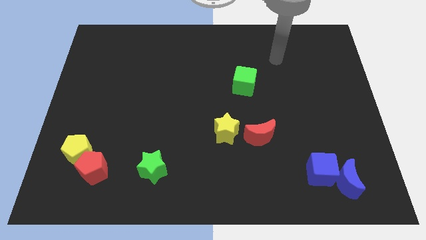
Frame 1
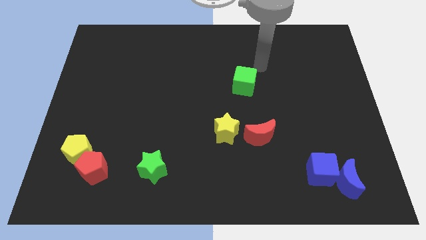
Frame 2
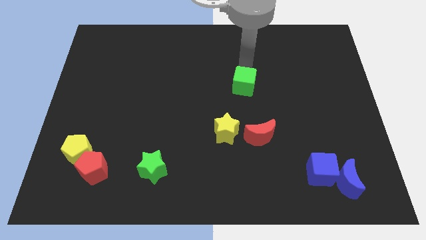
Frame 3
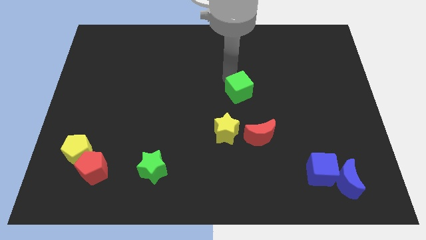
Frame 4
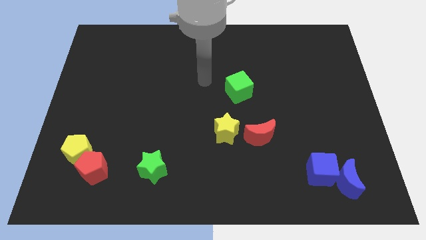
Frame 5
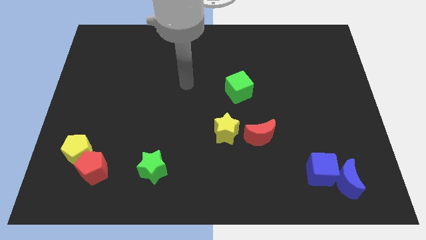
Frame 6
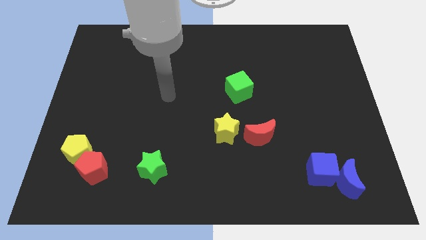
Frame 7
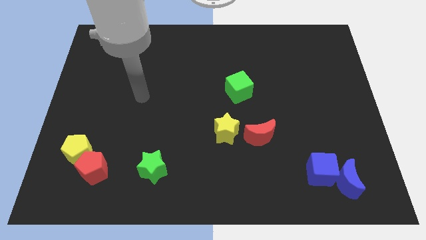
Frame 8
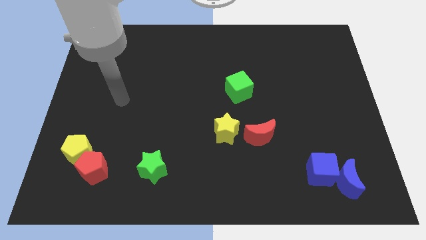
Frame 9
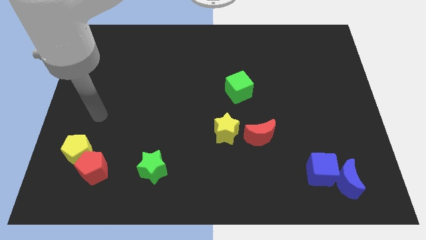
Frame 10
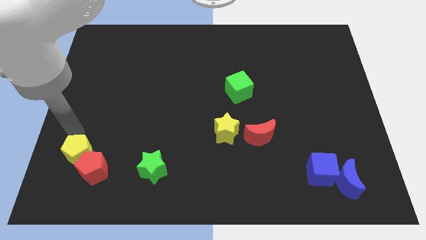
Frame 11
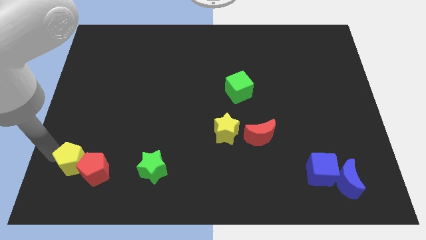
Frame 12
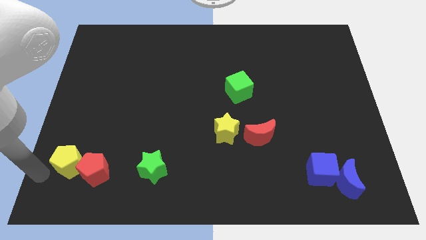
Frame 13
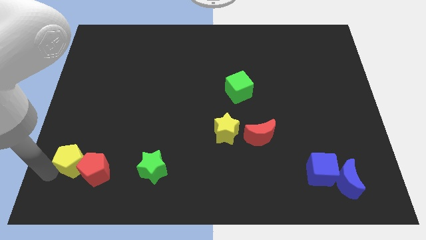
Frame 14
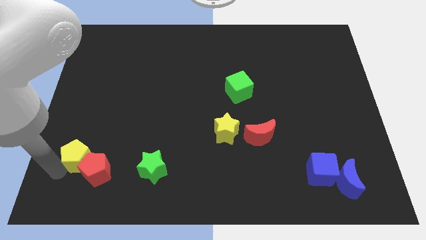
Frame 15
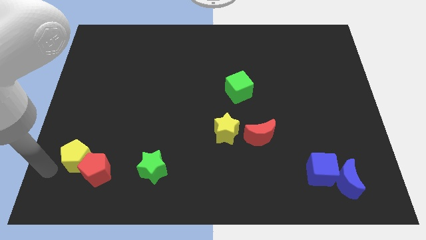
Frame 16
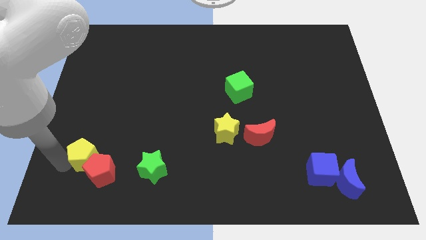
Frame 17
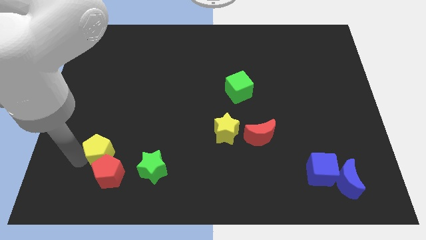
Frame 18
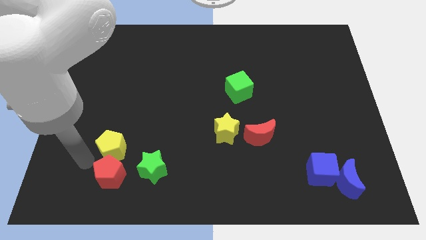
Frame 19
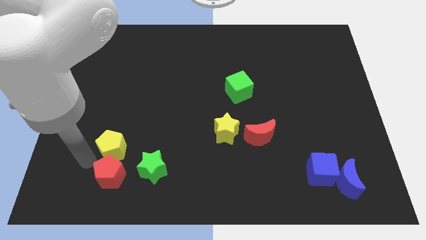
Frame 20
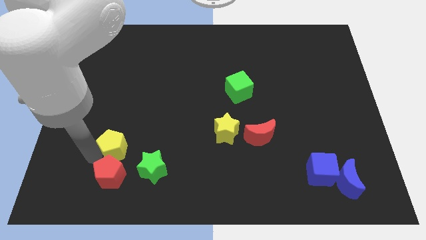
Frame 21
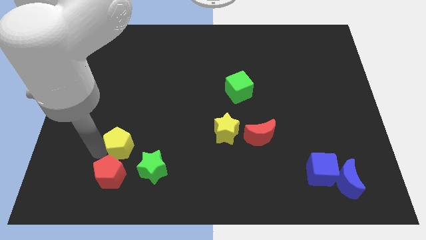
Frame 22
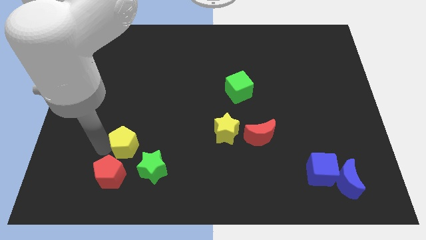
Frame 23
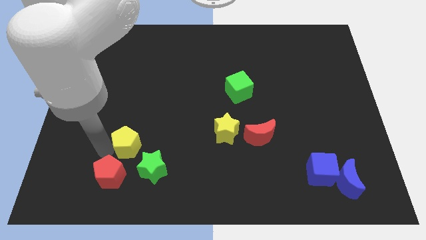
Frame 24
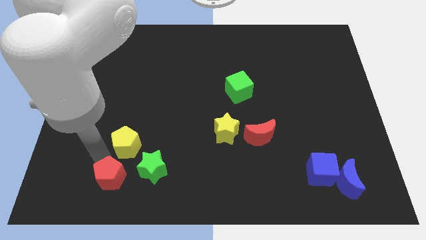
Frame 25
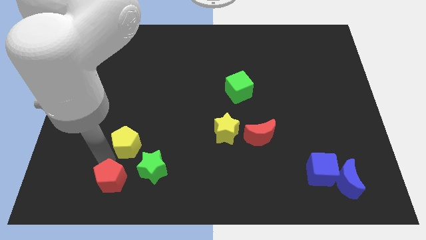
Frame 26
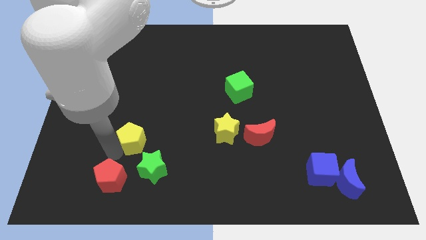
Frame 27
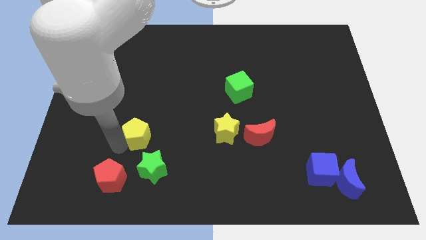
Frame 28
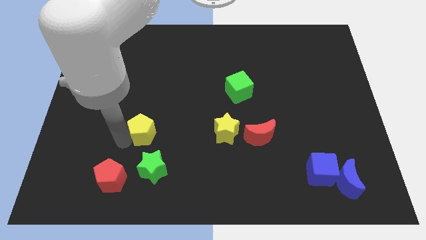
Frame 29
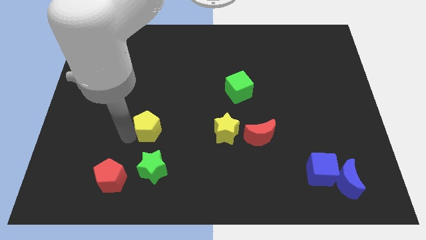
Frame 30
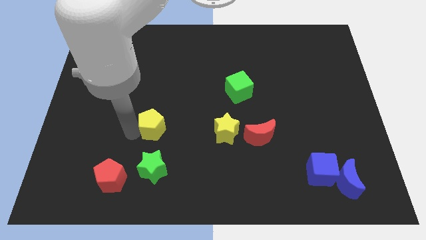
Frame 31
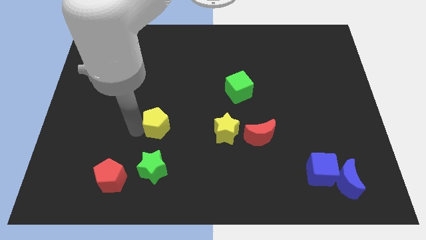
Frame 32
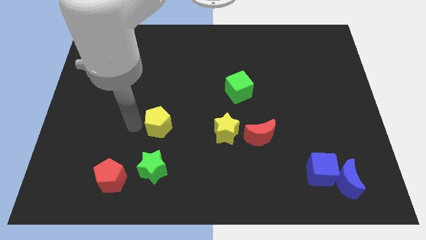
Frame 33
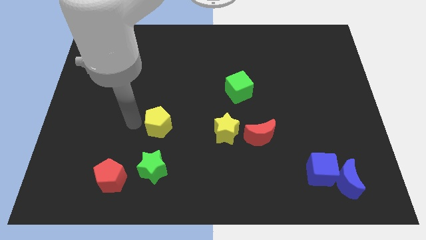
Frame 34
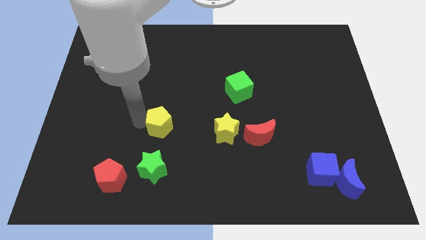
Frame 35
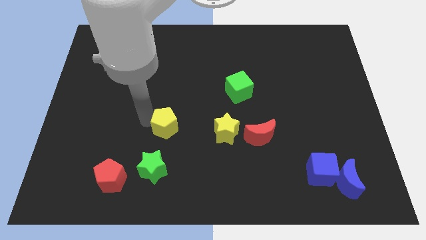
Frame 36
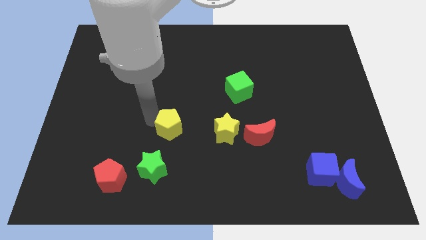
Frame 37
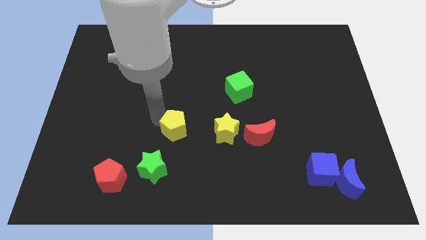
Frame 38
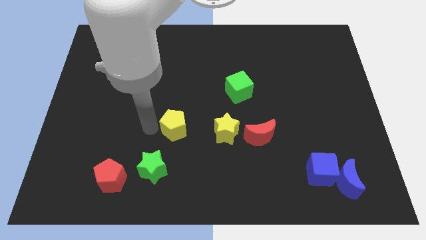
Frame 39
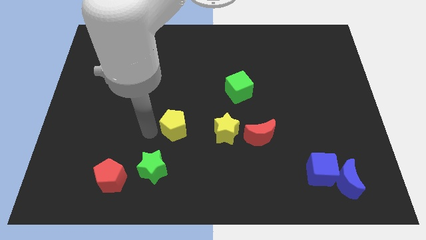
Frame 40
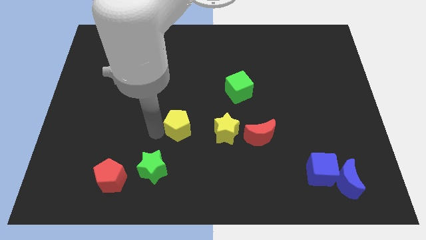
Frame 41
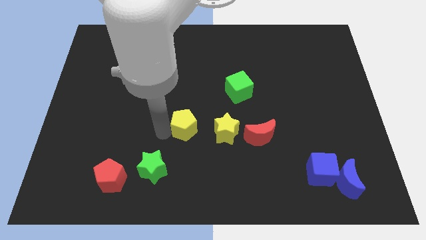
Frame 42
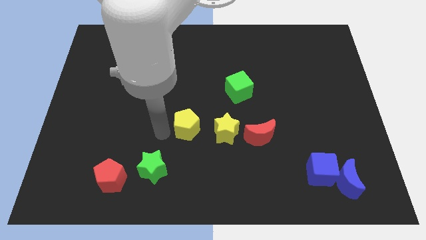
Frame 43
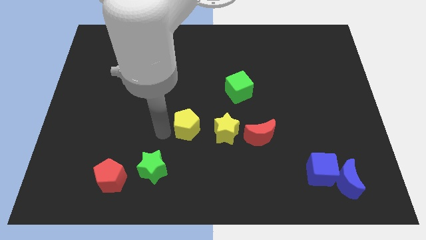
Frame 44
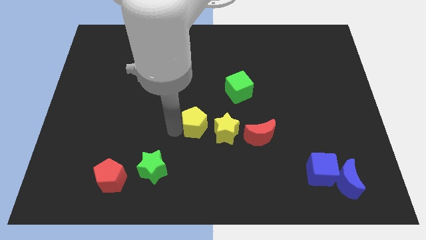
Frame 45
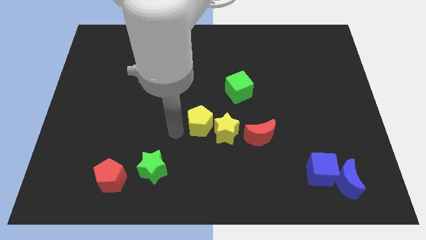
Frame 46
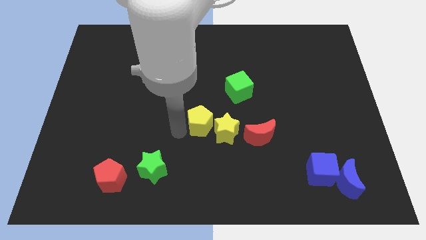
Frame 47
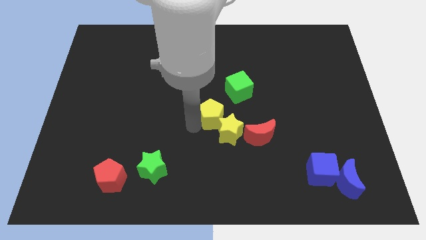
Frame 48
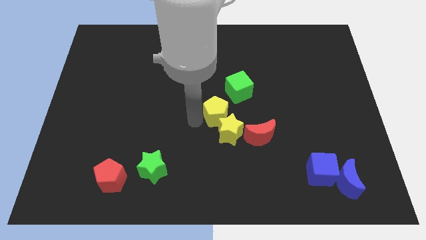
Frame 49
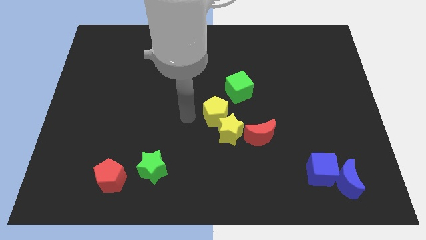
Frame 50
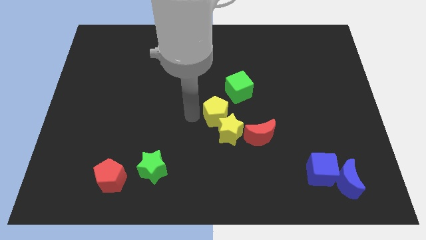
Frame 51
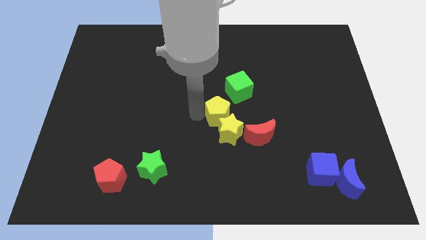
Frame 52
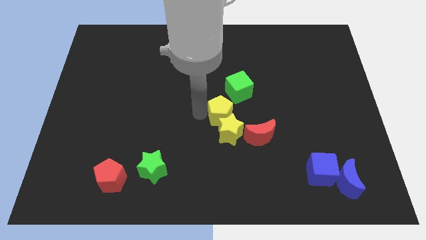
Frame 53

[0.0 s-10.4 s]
slide the yellow pentagon below the green cube

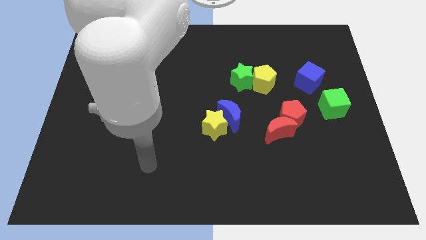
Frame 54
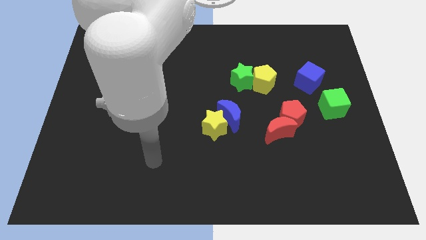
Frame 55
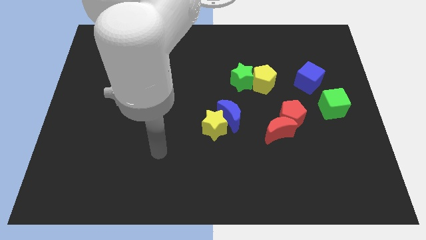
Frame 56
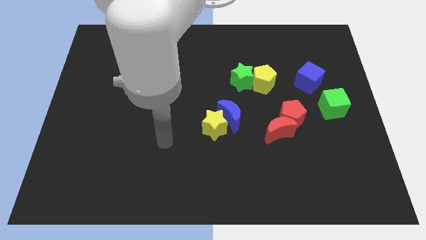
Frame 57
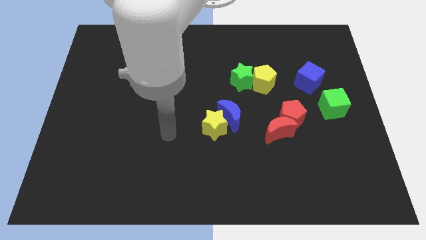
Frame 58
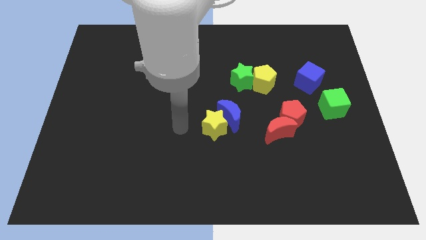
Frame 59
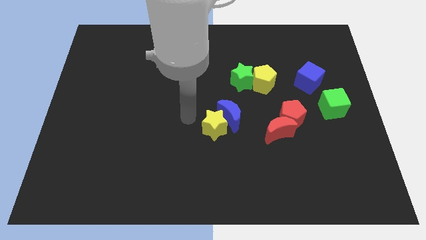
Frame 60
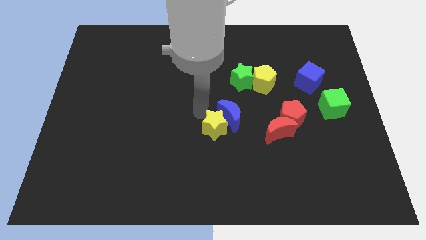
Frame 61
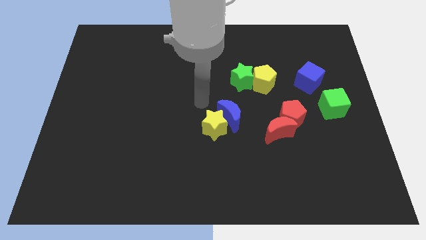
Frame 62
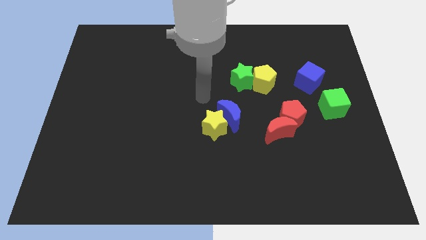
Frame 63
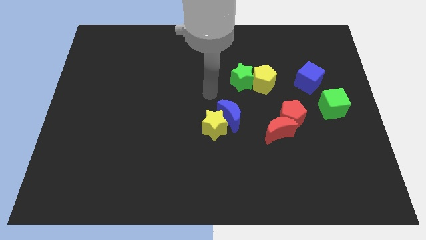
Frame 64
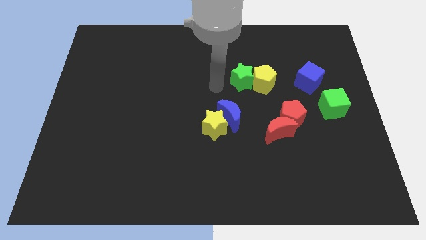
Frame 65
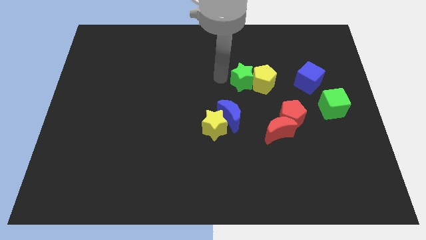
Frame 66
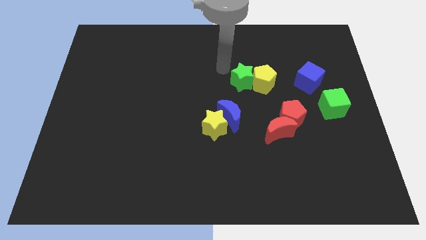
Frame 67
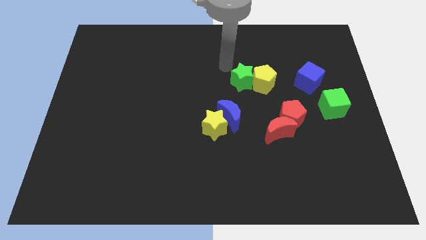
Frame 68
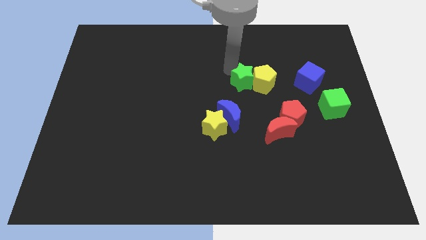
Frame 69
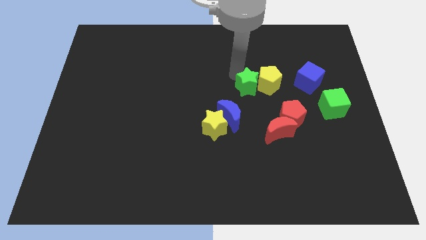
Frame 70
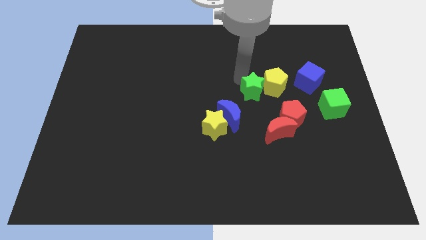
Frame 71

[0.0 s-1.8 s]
put the green star to the top left of the red pentagon

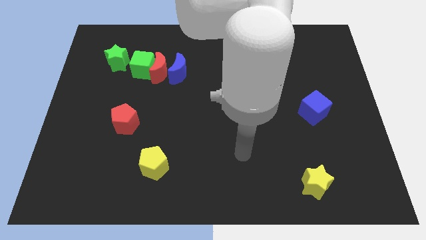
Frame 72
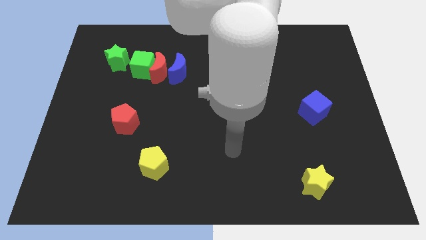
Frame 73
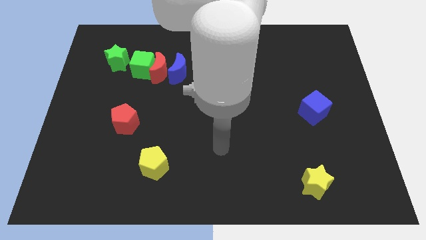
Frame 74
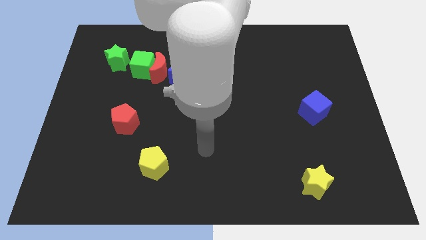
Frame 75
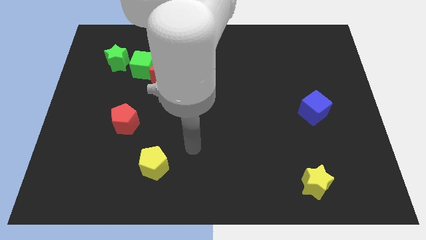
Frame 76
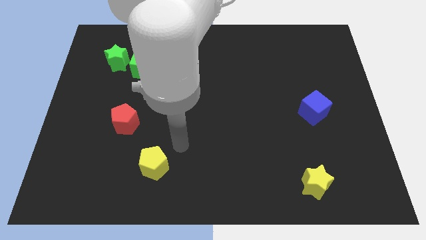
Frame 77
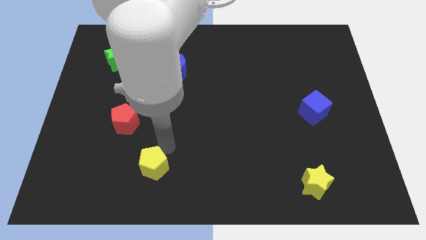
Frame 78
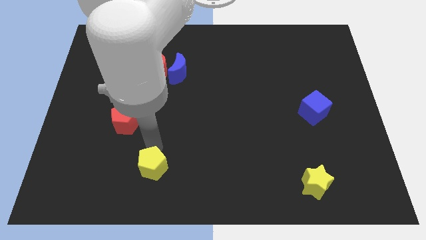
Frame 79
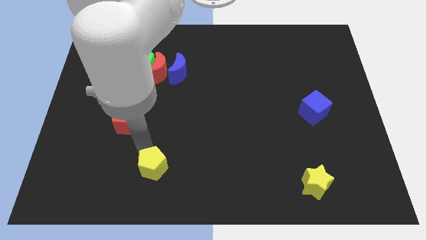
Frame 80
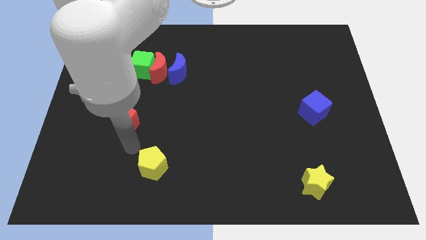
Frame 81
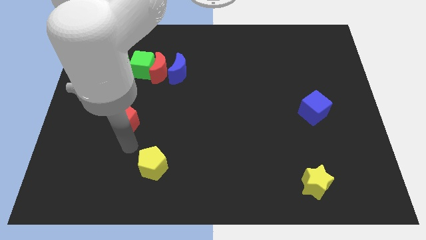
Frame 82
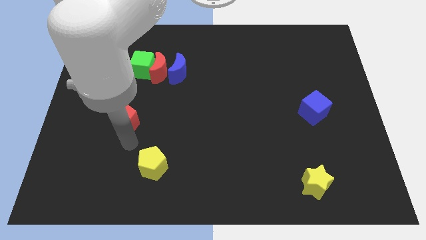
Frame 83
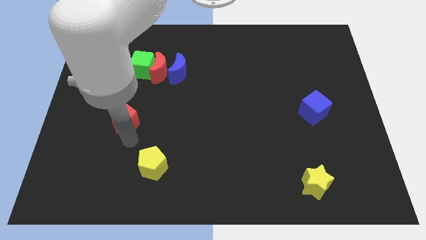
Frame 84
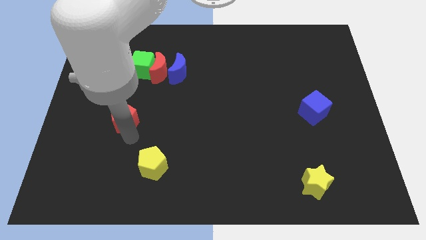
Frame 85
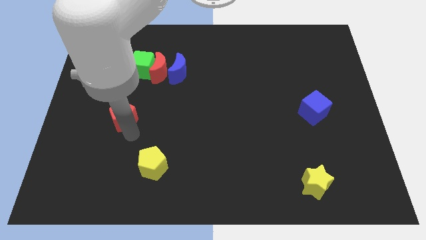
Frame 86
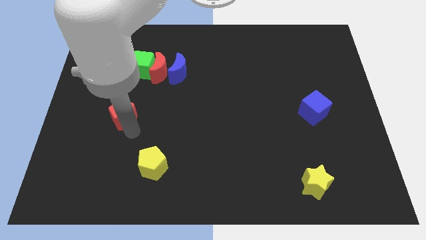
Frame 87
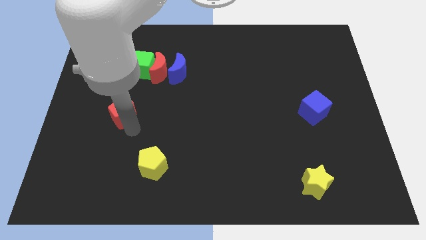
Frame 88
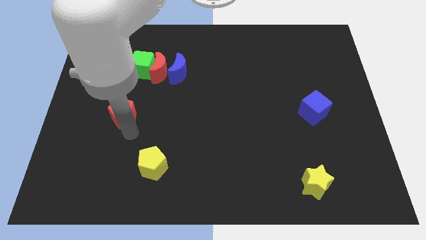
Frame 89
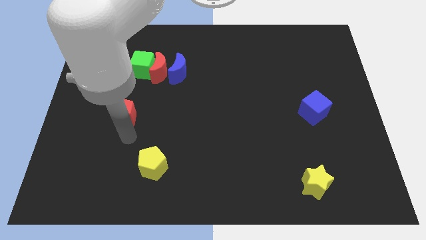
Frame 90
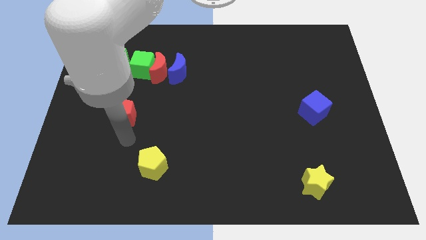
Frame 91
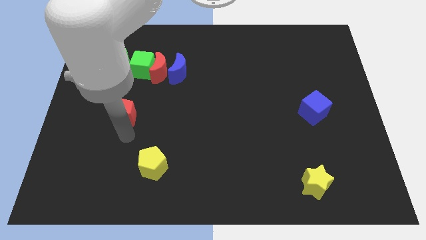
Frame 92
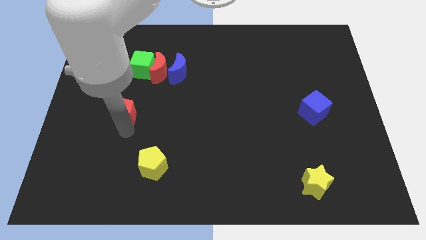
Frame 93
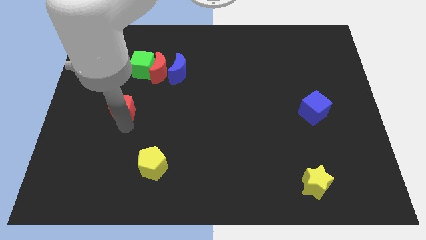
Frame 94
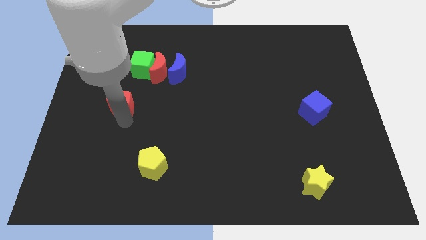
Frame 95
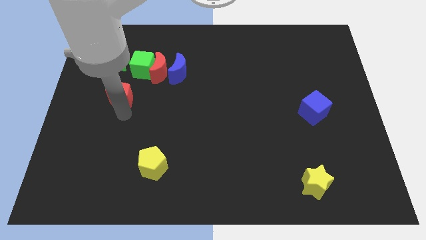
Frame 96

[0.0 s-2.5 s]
push the red pentagon to the bottom left side of the green cube
